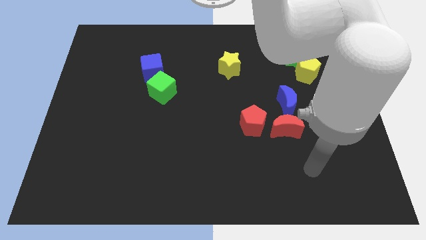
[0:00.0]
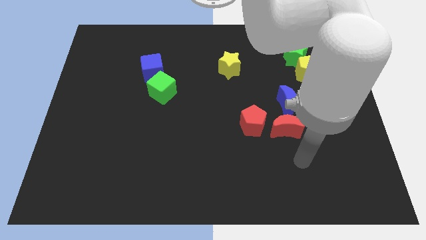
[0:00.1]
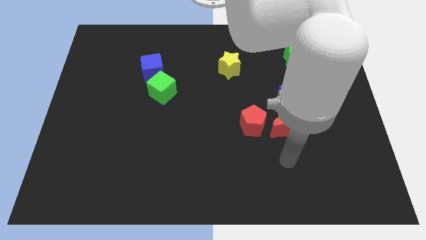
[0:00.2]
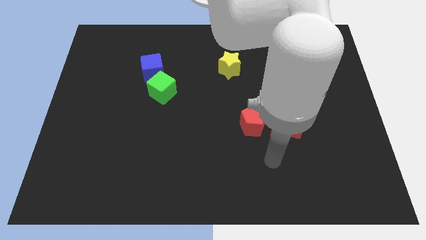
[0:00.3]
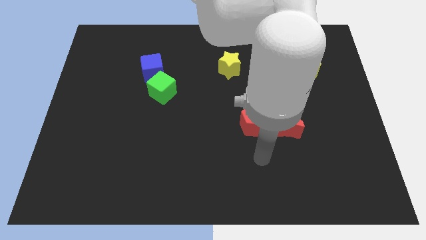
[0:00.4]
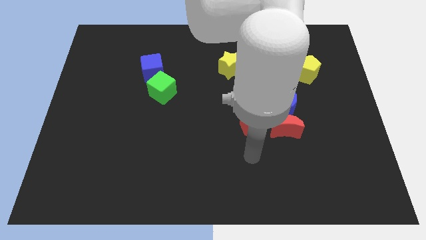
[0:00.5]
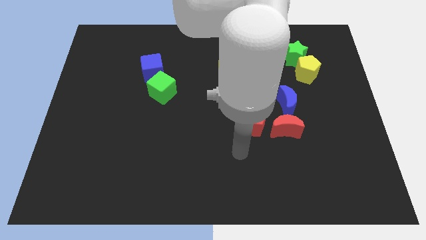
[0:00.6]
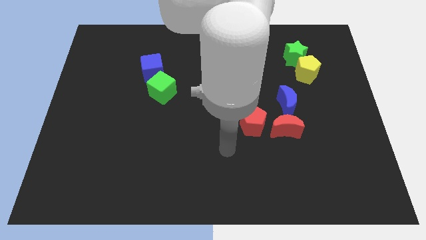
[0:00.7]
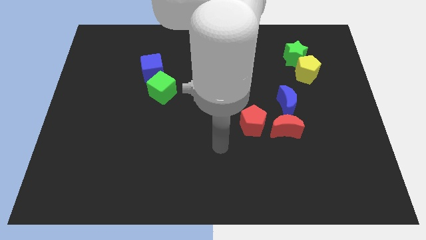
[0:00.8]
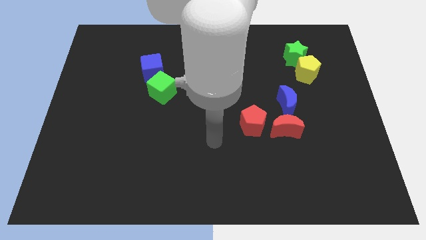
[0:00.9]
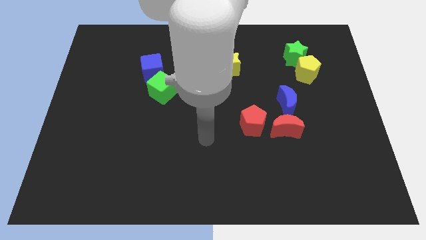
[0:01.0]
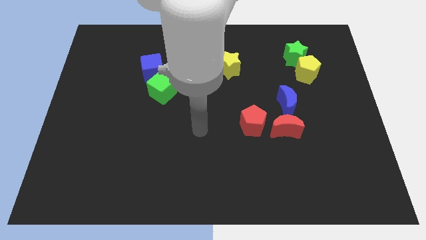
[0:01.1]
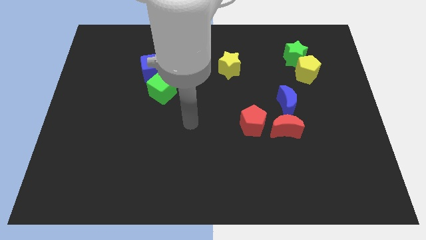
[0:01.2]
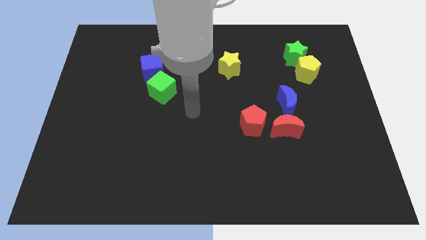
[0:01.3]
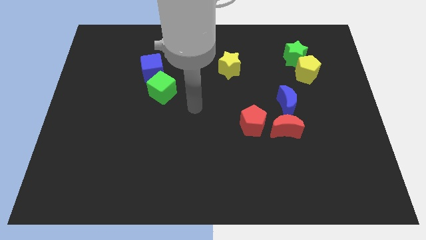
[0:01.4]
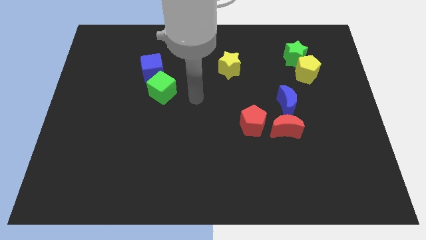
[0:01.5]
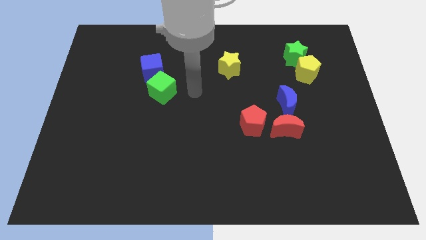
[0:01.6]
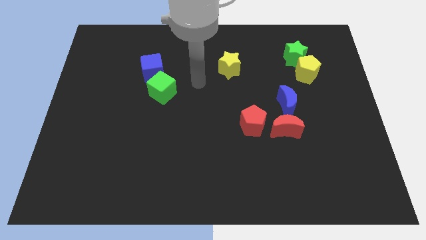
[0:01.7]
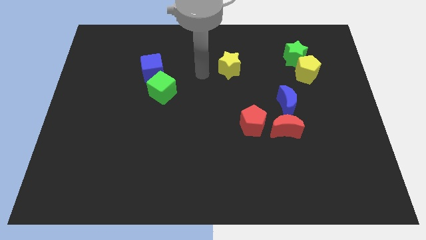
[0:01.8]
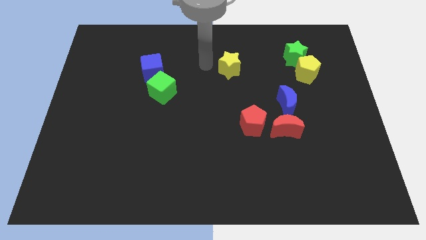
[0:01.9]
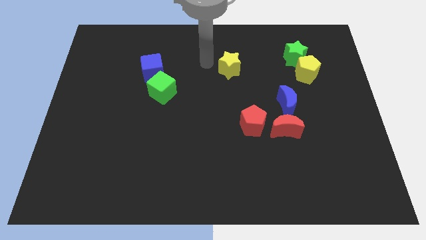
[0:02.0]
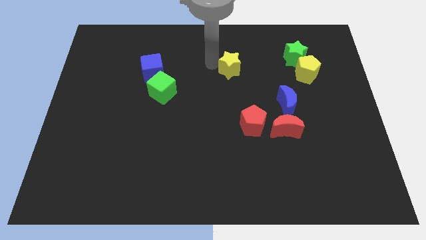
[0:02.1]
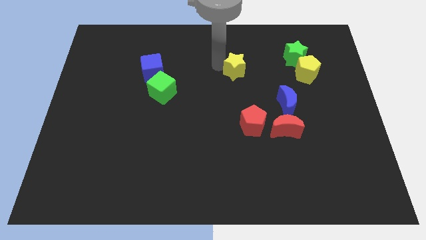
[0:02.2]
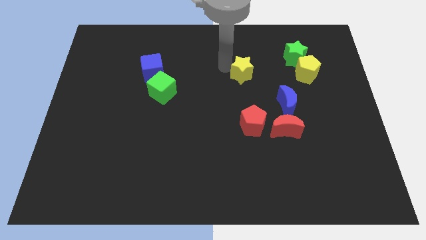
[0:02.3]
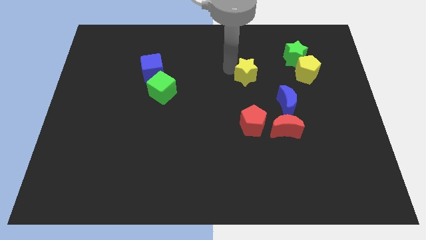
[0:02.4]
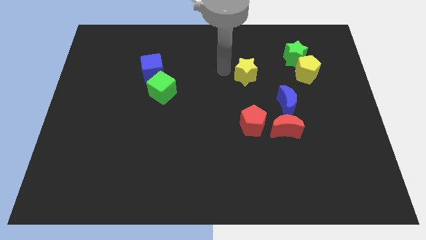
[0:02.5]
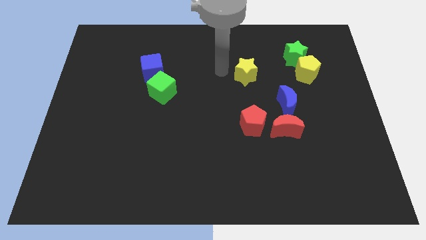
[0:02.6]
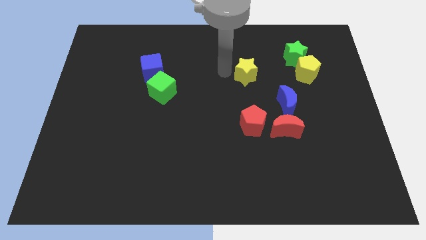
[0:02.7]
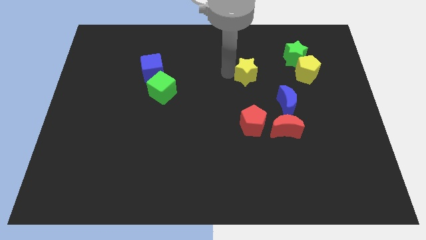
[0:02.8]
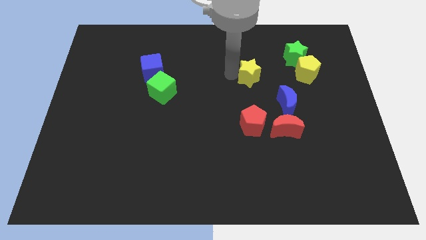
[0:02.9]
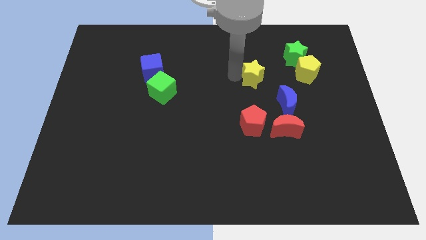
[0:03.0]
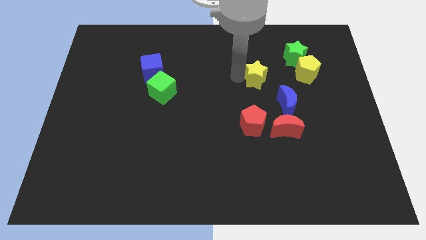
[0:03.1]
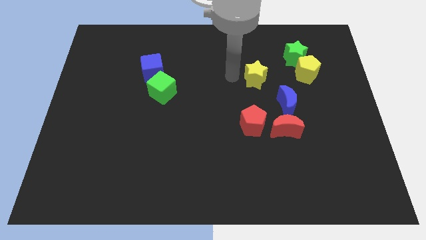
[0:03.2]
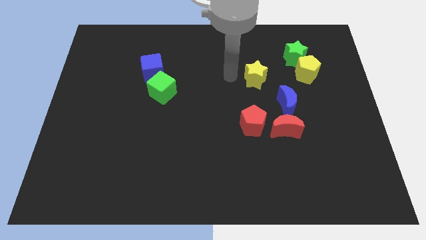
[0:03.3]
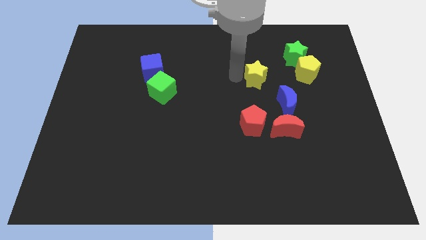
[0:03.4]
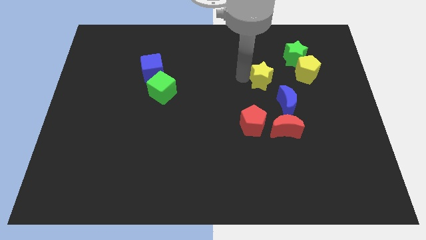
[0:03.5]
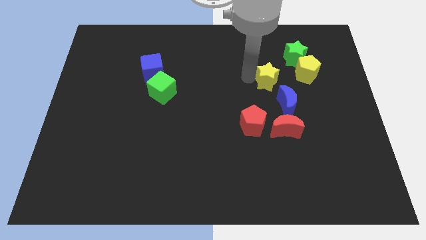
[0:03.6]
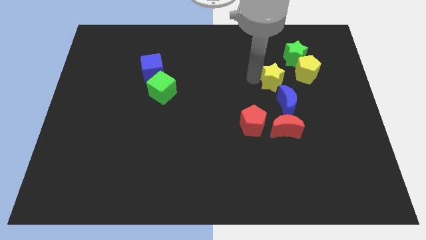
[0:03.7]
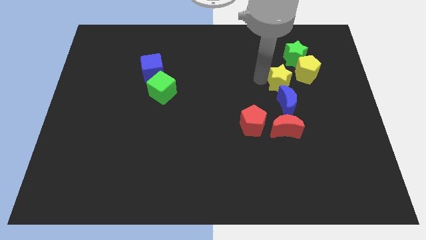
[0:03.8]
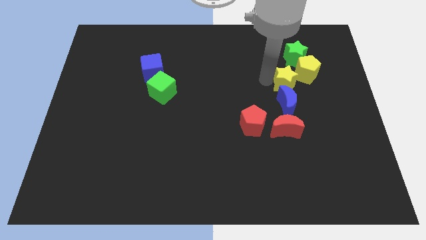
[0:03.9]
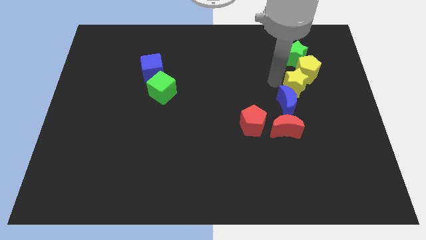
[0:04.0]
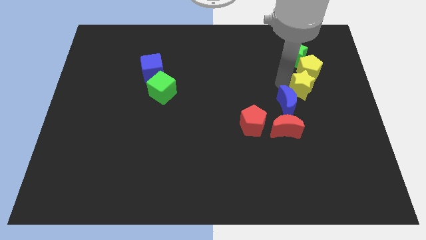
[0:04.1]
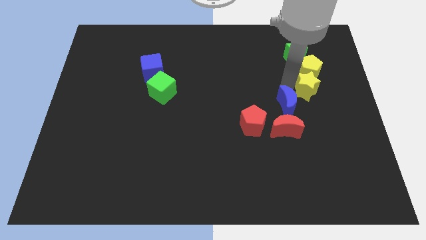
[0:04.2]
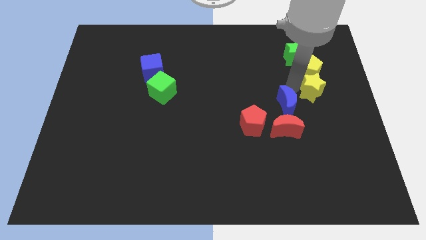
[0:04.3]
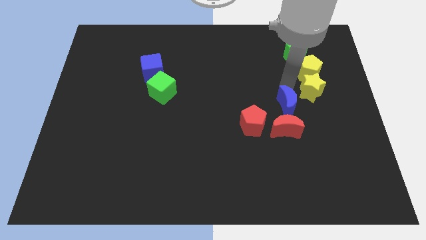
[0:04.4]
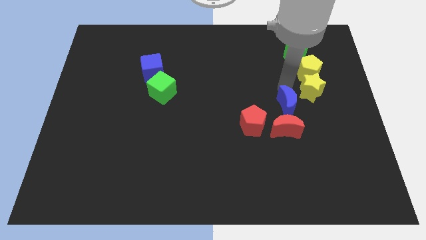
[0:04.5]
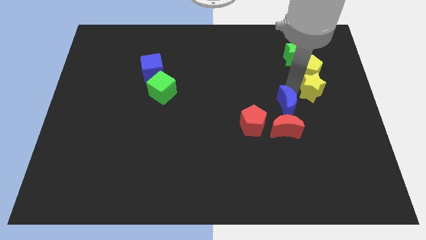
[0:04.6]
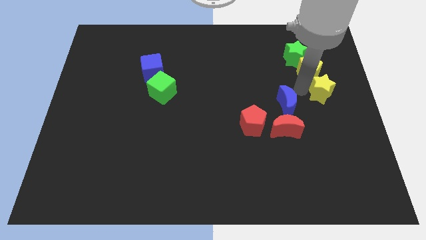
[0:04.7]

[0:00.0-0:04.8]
put the yellow star to the center right

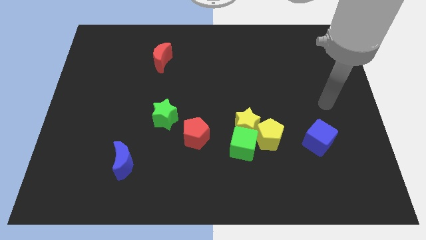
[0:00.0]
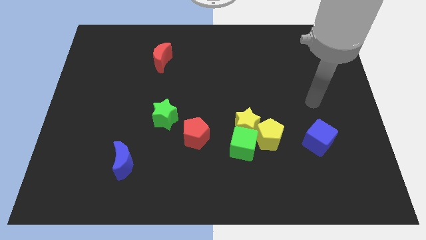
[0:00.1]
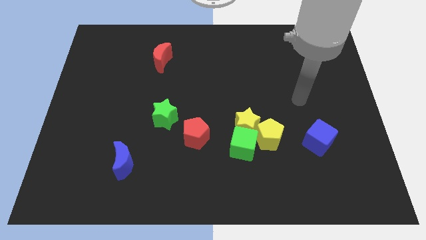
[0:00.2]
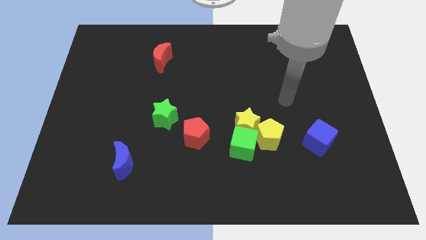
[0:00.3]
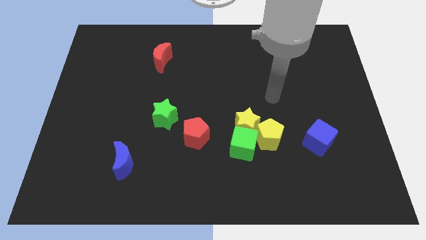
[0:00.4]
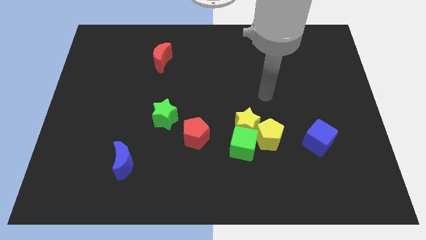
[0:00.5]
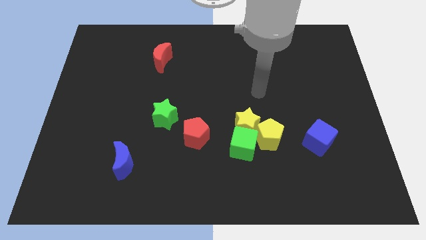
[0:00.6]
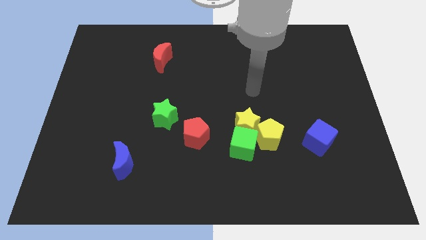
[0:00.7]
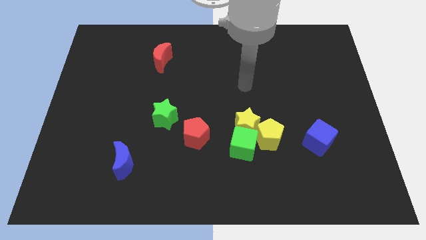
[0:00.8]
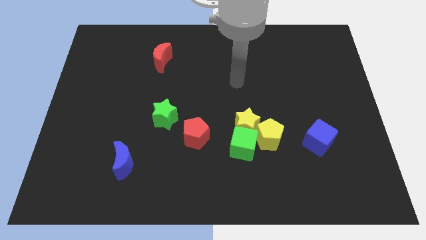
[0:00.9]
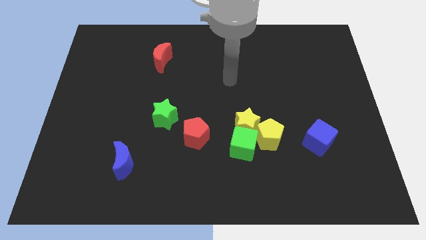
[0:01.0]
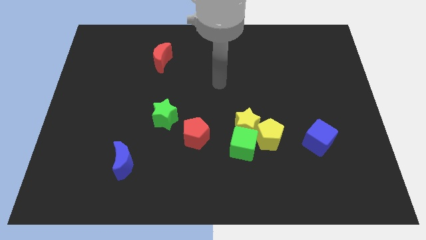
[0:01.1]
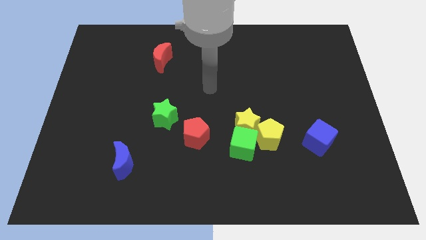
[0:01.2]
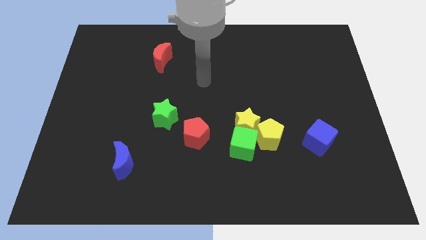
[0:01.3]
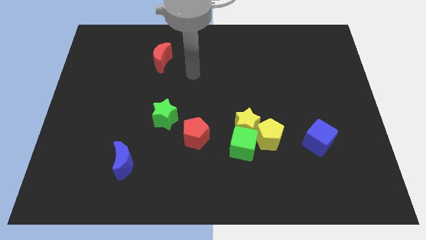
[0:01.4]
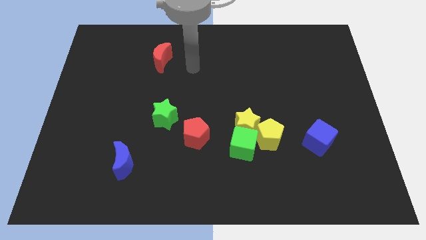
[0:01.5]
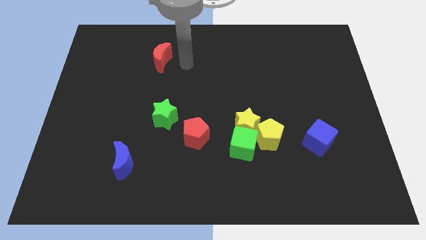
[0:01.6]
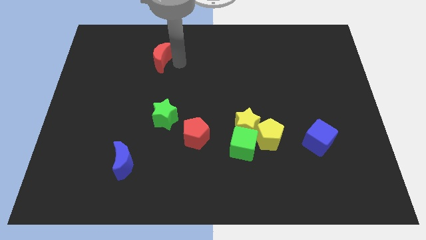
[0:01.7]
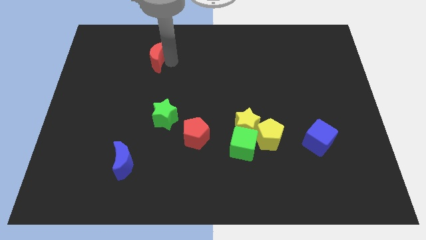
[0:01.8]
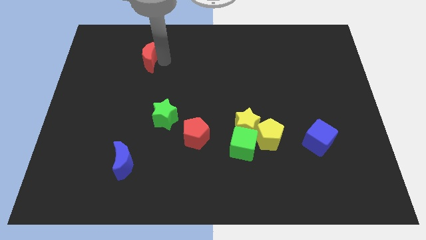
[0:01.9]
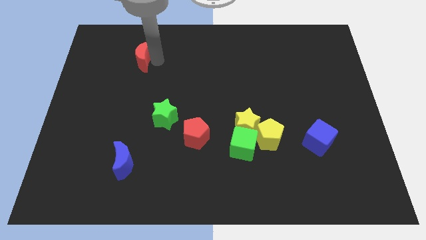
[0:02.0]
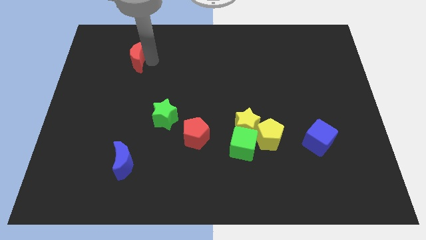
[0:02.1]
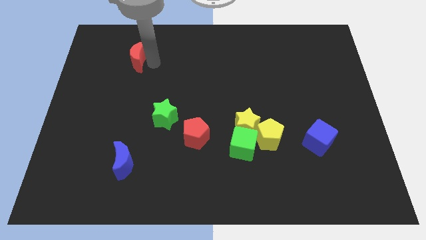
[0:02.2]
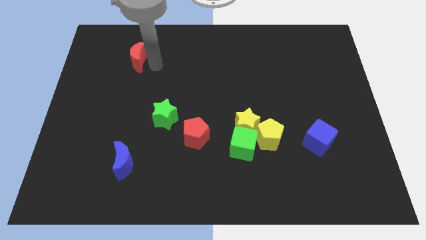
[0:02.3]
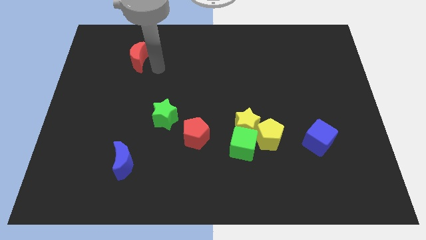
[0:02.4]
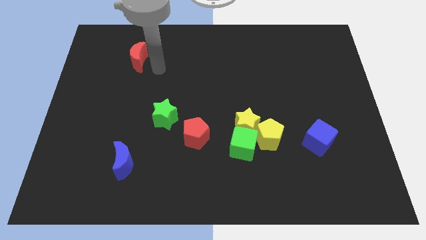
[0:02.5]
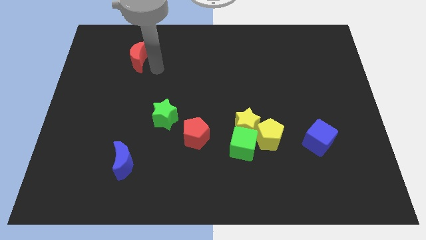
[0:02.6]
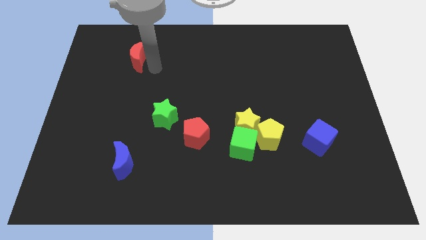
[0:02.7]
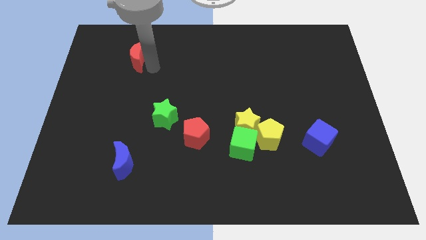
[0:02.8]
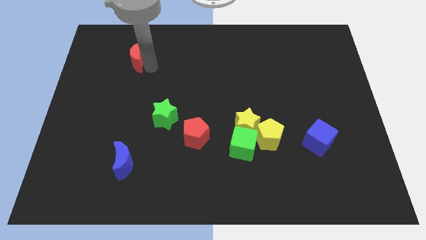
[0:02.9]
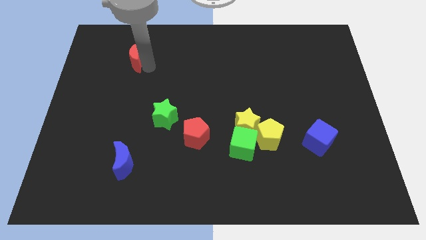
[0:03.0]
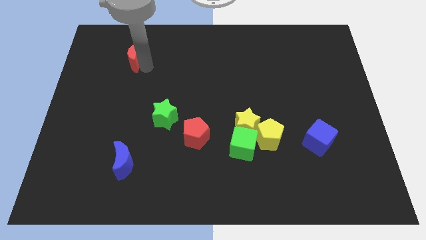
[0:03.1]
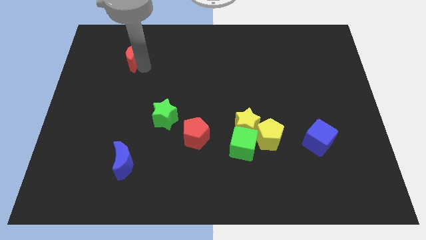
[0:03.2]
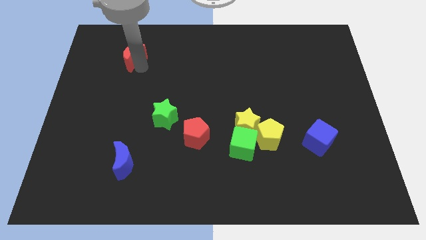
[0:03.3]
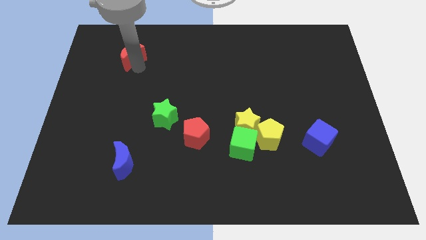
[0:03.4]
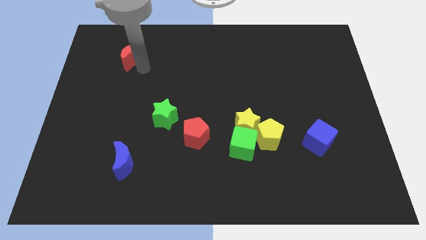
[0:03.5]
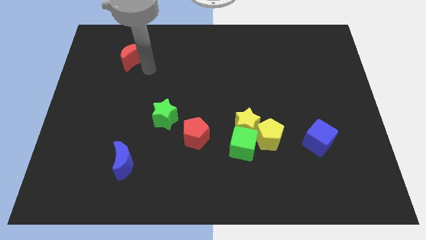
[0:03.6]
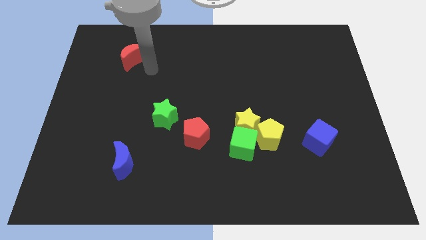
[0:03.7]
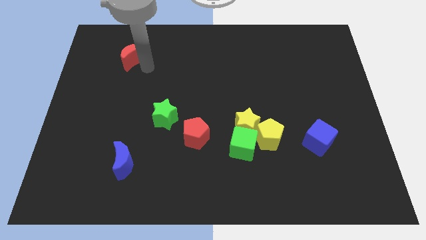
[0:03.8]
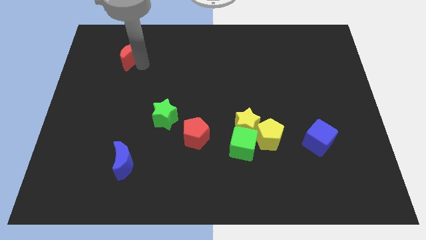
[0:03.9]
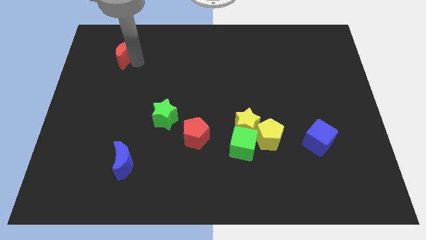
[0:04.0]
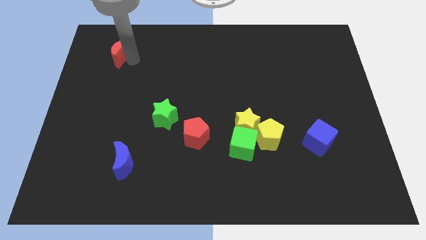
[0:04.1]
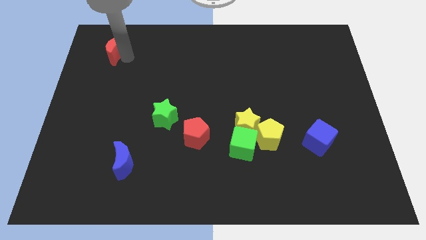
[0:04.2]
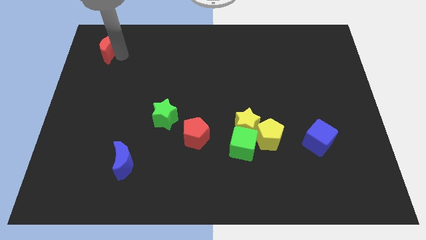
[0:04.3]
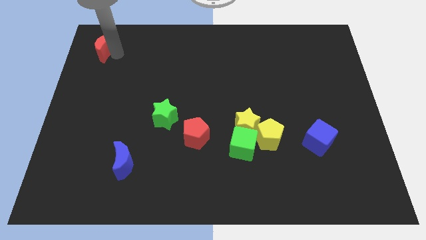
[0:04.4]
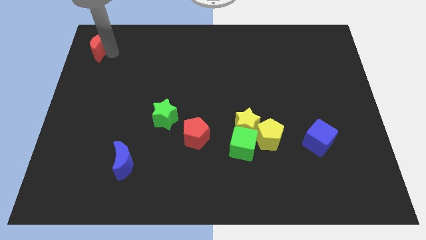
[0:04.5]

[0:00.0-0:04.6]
move the red moon to the upper left corner
